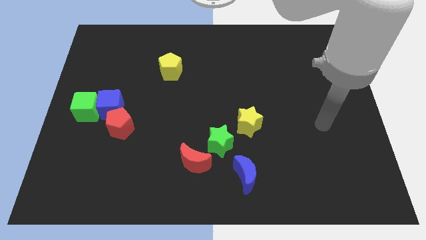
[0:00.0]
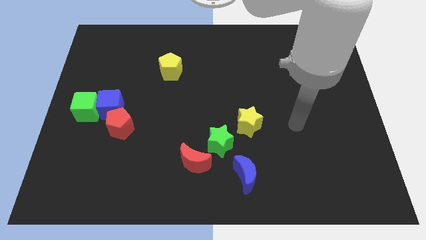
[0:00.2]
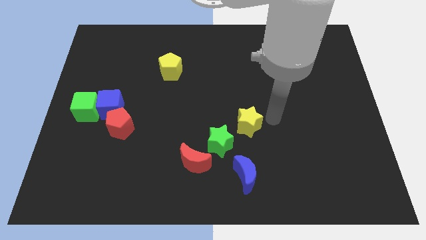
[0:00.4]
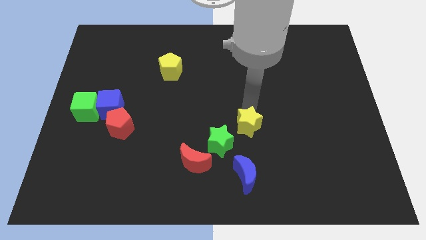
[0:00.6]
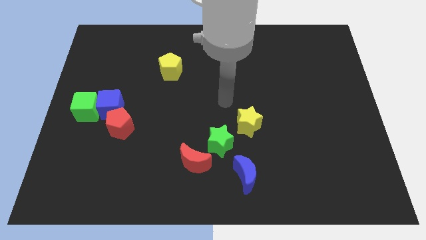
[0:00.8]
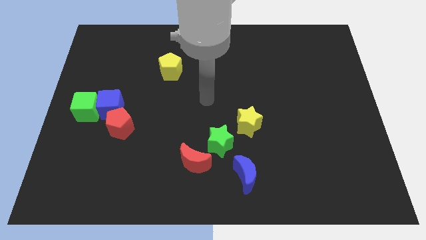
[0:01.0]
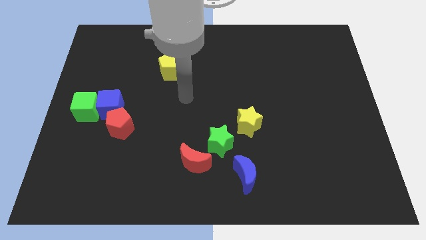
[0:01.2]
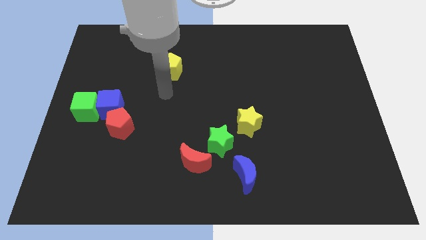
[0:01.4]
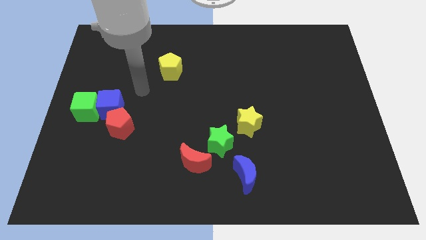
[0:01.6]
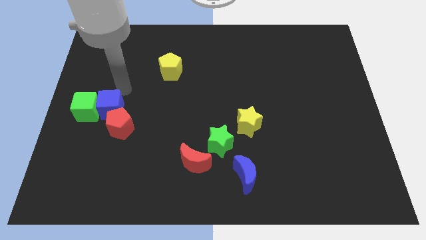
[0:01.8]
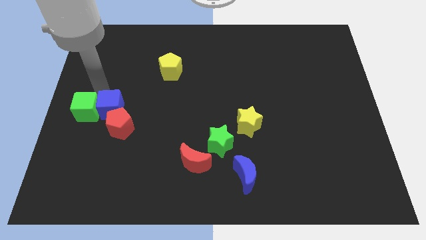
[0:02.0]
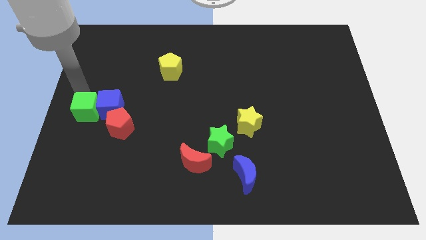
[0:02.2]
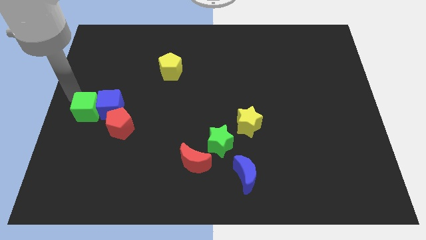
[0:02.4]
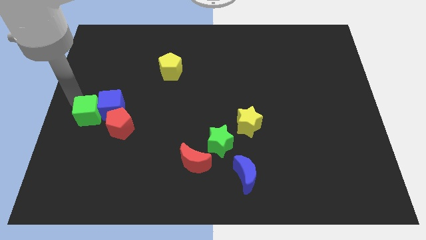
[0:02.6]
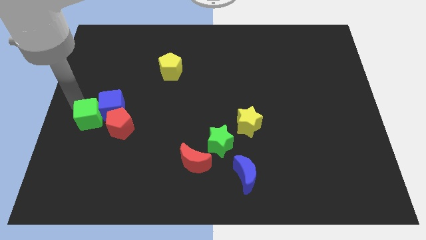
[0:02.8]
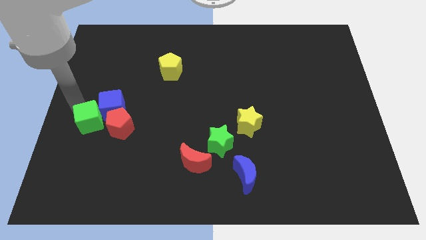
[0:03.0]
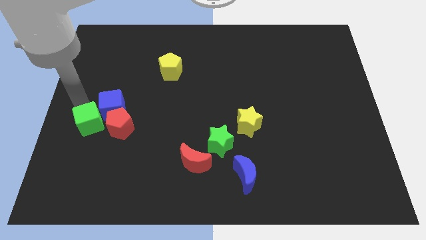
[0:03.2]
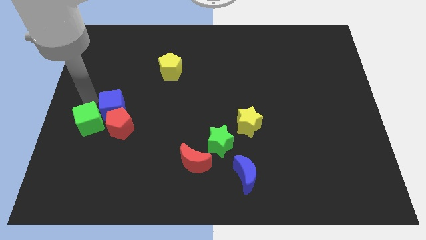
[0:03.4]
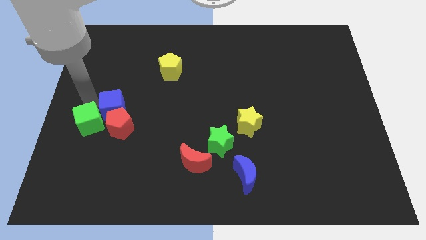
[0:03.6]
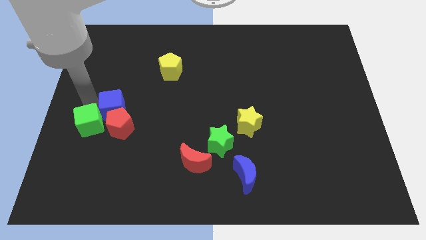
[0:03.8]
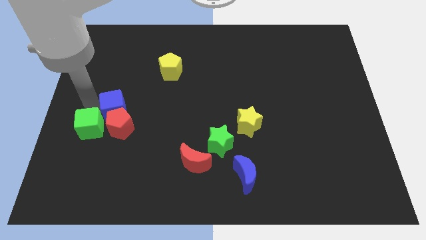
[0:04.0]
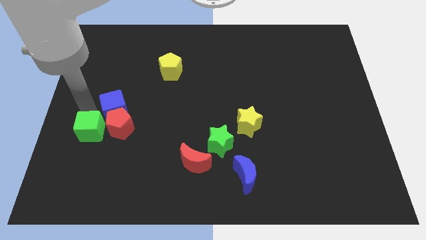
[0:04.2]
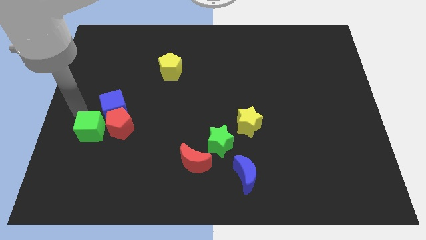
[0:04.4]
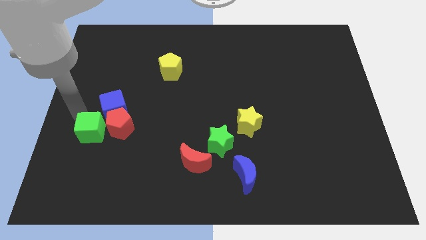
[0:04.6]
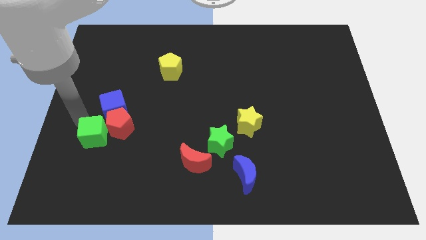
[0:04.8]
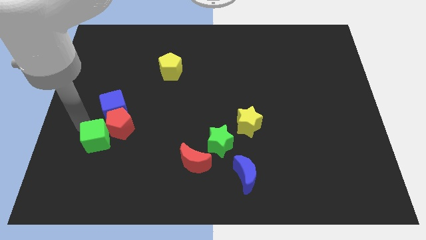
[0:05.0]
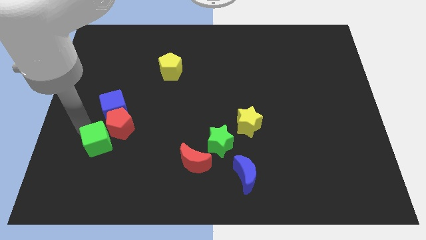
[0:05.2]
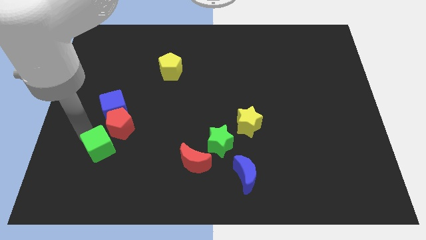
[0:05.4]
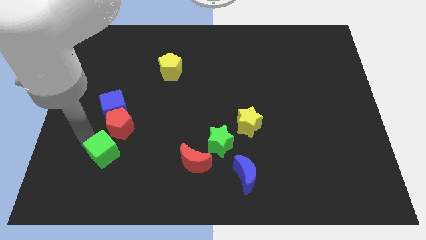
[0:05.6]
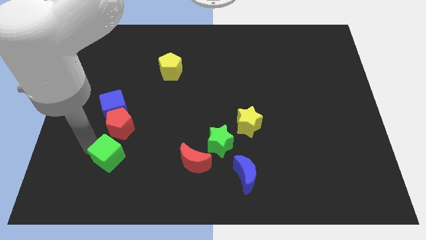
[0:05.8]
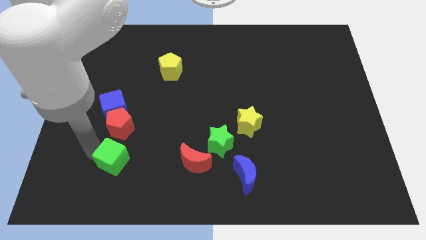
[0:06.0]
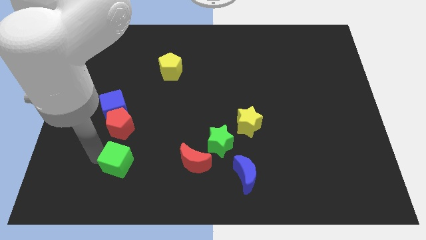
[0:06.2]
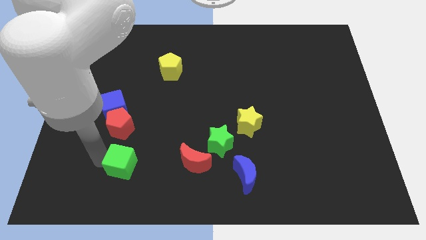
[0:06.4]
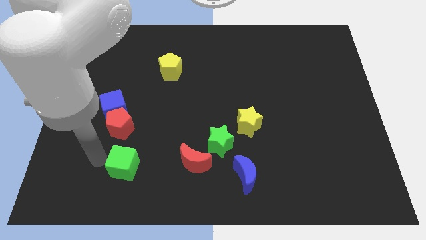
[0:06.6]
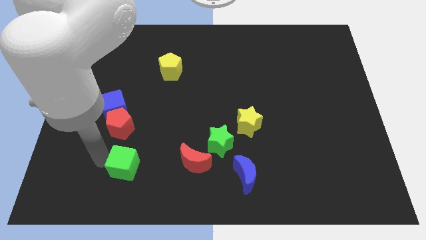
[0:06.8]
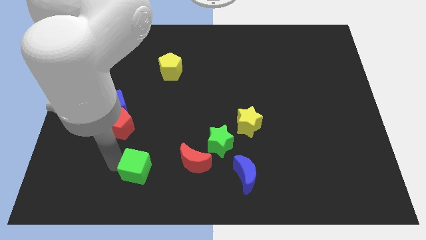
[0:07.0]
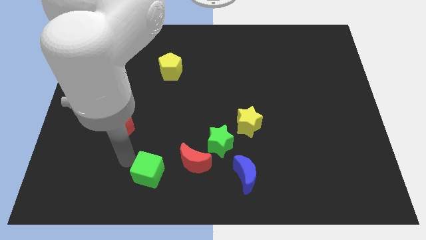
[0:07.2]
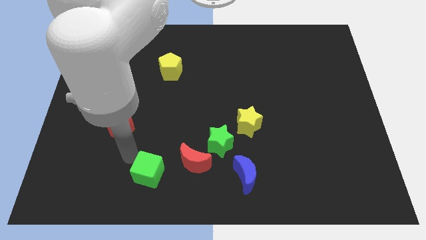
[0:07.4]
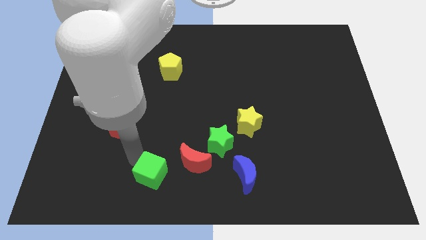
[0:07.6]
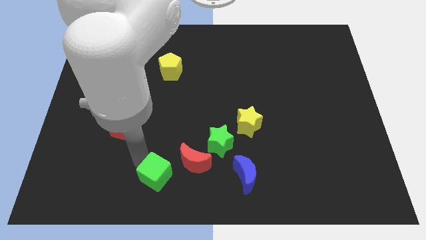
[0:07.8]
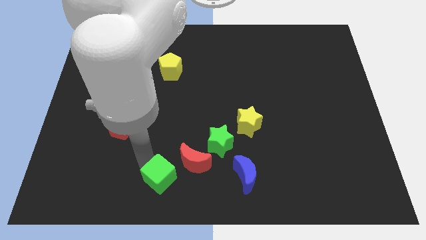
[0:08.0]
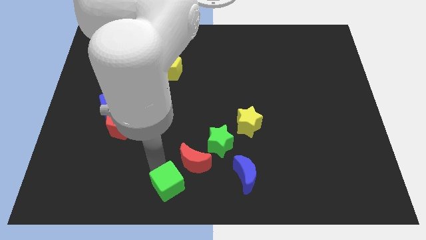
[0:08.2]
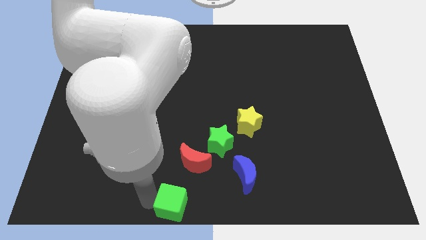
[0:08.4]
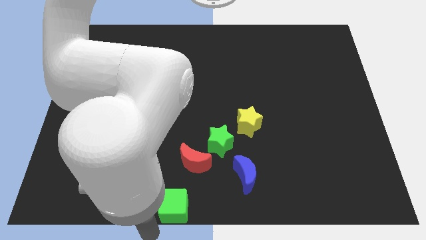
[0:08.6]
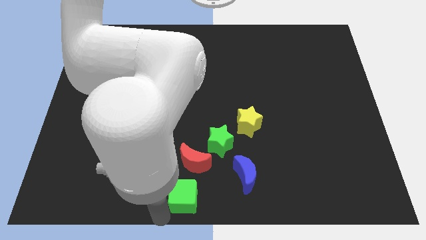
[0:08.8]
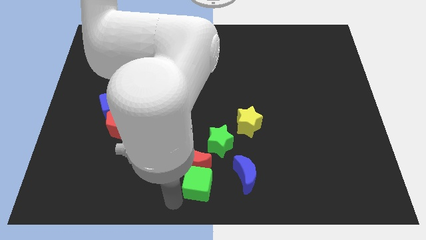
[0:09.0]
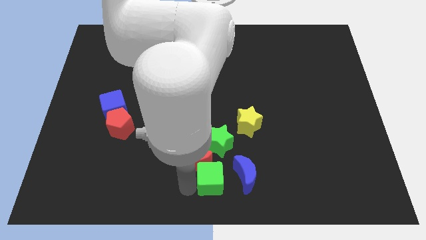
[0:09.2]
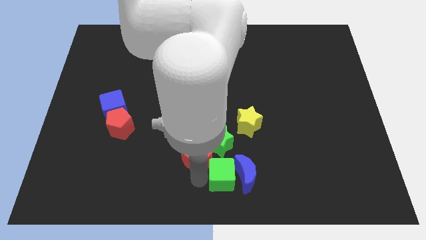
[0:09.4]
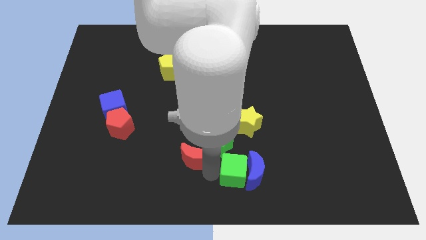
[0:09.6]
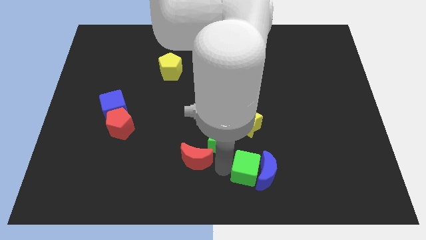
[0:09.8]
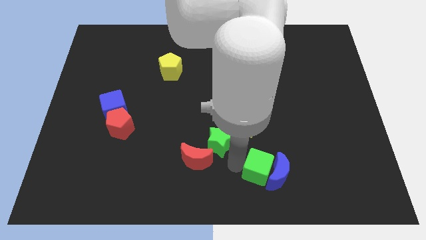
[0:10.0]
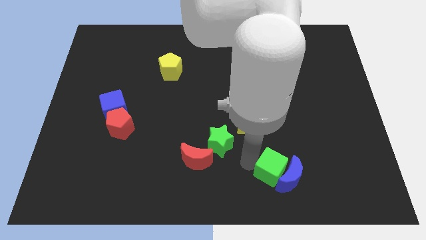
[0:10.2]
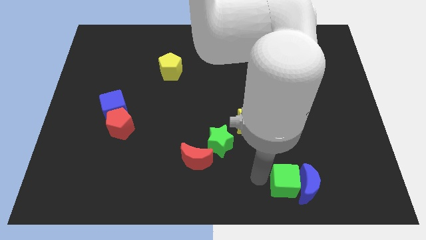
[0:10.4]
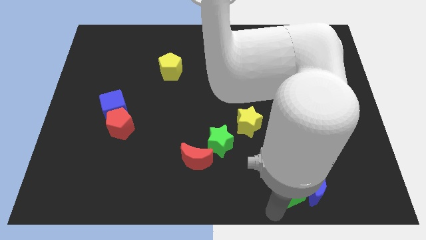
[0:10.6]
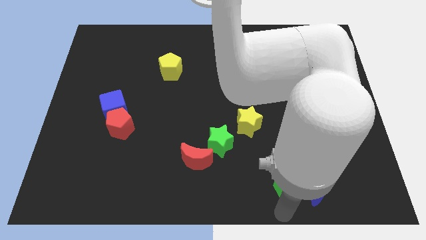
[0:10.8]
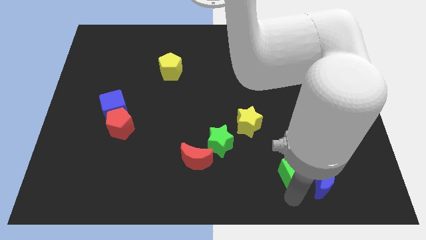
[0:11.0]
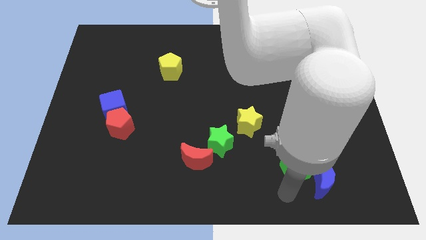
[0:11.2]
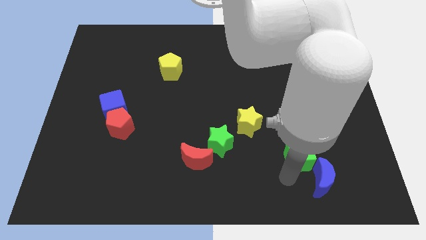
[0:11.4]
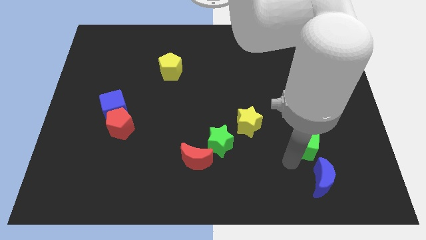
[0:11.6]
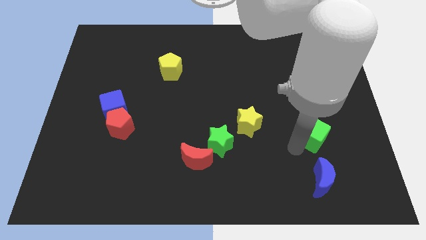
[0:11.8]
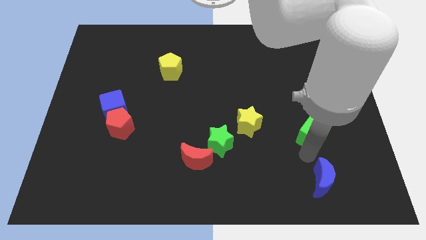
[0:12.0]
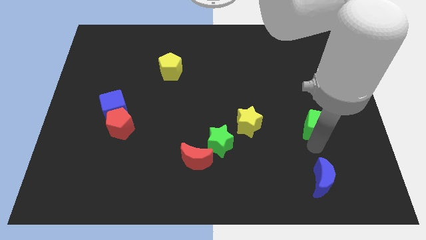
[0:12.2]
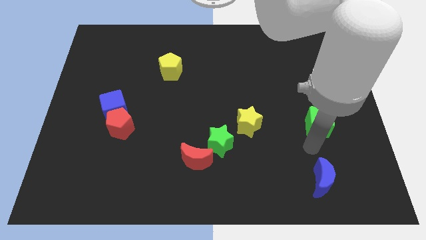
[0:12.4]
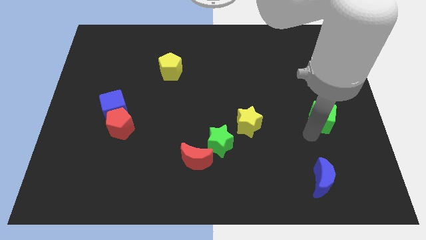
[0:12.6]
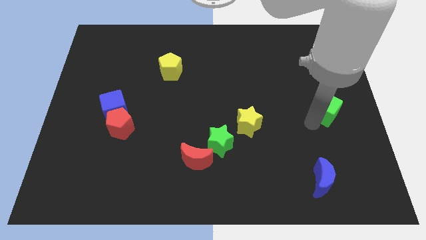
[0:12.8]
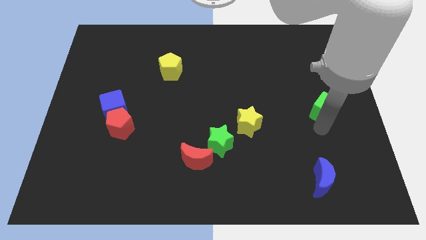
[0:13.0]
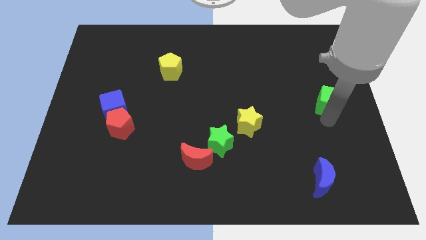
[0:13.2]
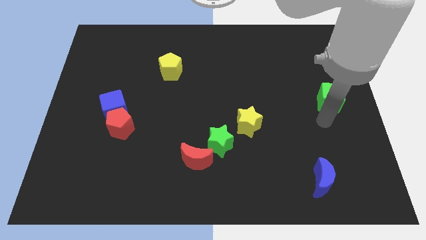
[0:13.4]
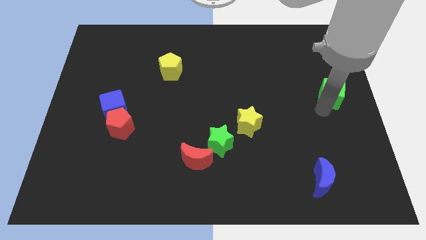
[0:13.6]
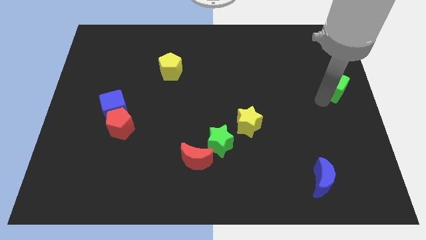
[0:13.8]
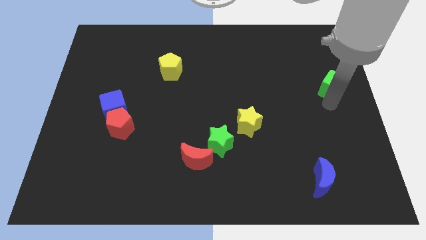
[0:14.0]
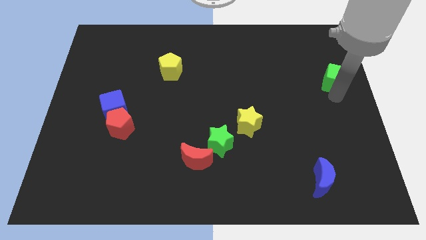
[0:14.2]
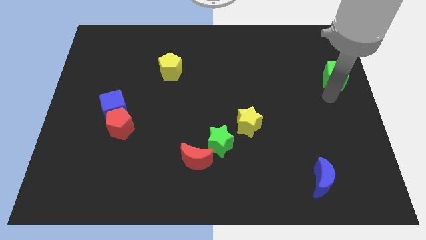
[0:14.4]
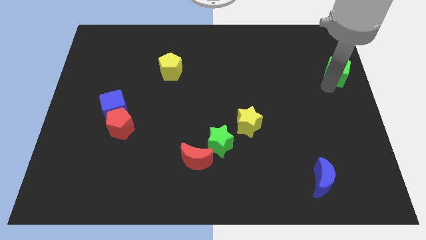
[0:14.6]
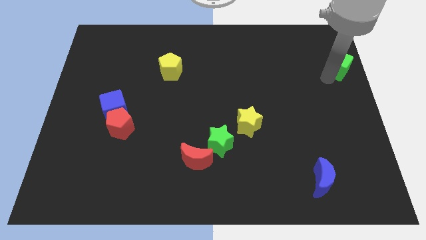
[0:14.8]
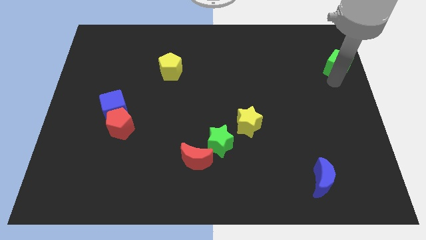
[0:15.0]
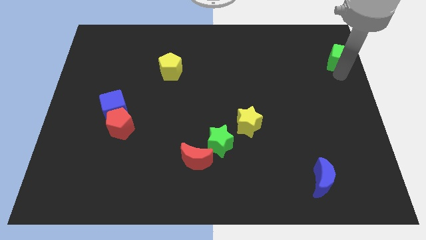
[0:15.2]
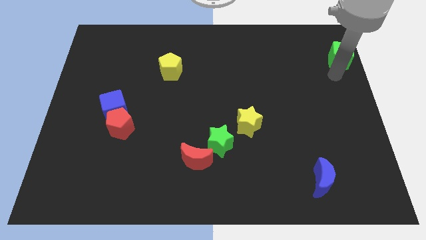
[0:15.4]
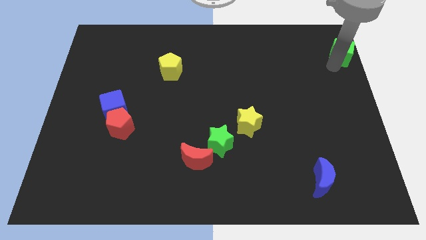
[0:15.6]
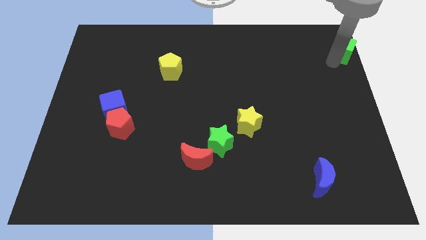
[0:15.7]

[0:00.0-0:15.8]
push the green cube to the top right corner
